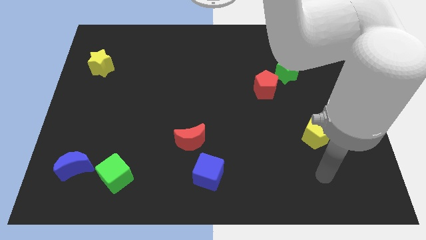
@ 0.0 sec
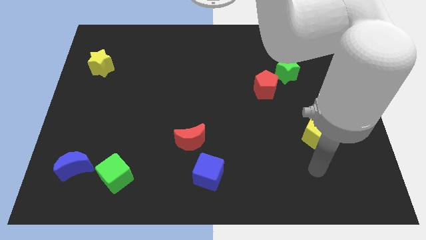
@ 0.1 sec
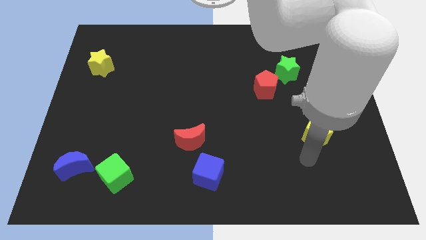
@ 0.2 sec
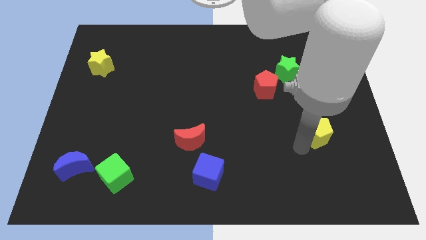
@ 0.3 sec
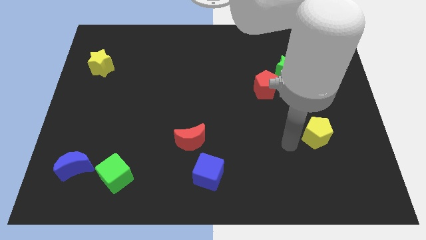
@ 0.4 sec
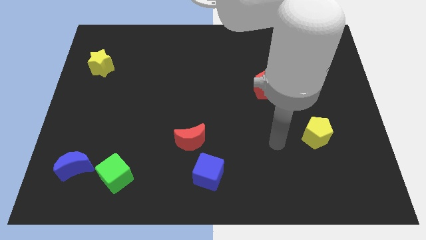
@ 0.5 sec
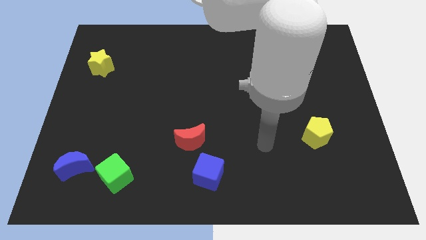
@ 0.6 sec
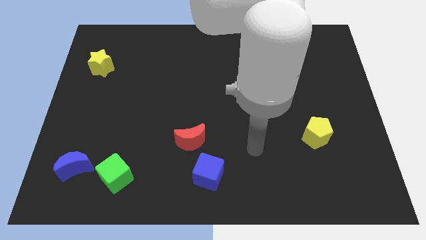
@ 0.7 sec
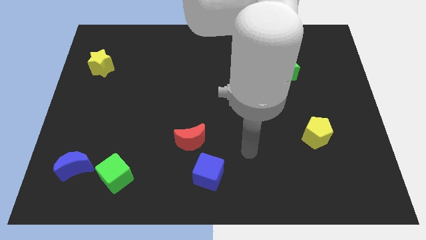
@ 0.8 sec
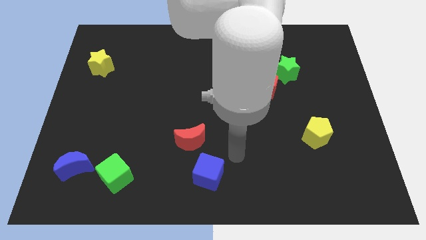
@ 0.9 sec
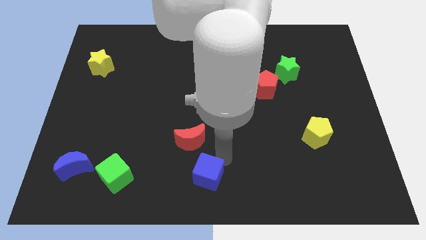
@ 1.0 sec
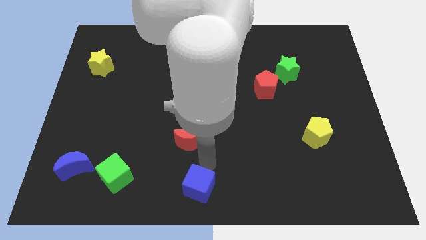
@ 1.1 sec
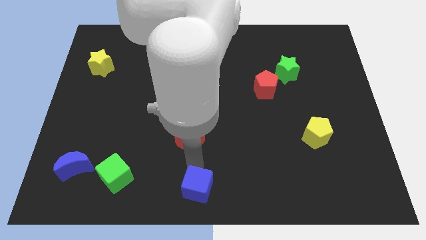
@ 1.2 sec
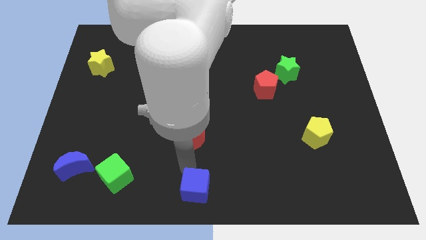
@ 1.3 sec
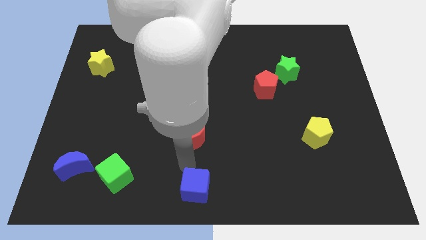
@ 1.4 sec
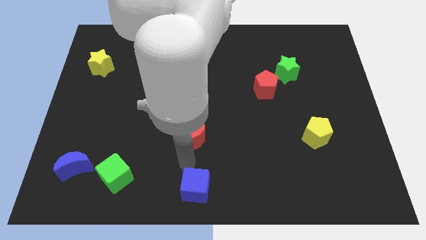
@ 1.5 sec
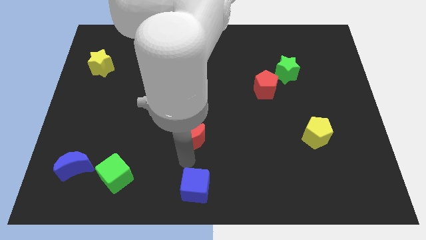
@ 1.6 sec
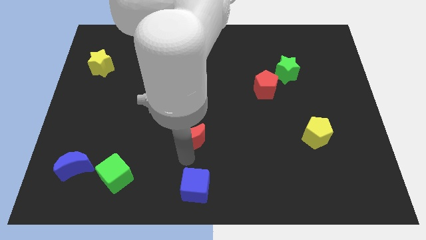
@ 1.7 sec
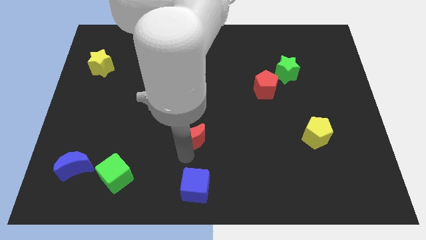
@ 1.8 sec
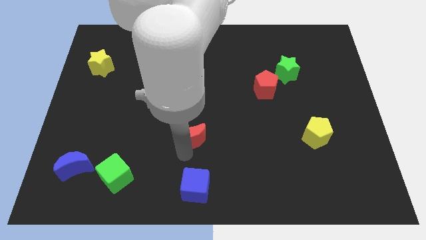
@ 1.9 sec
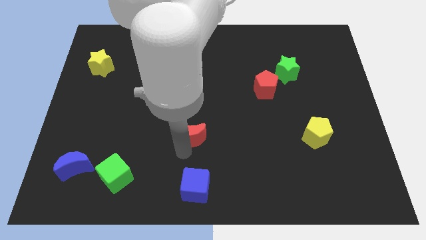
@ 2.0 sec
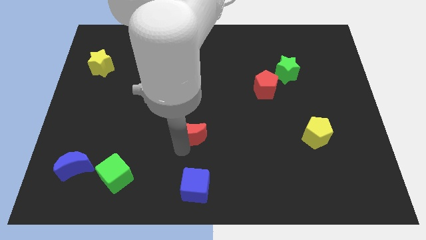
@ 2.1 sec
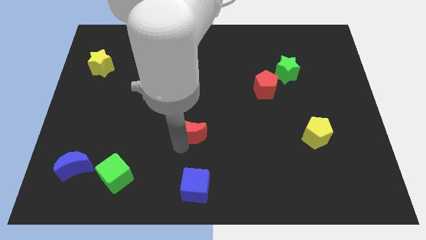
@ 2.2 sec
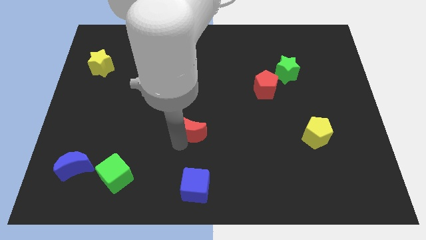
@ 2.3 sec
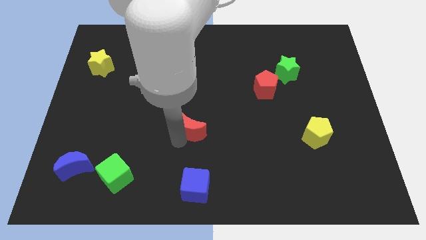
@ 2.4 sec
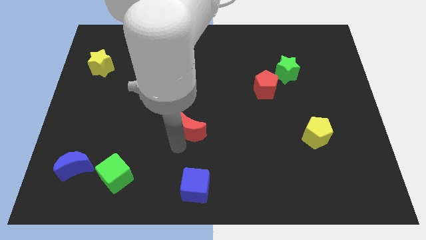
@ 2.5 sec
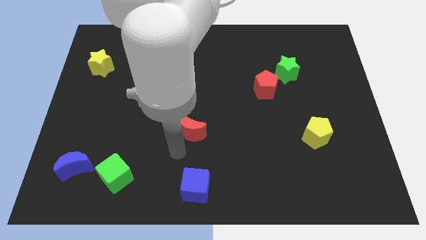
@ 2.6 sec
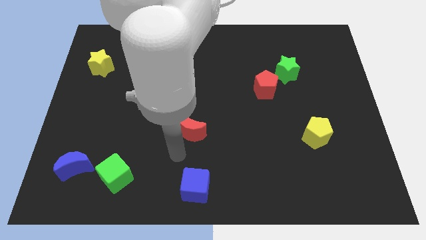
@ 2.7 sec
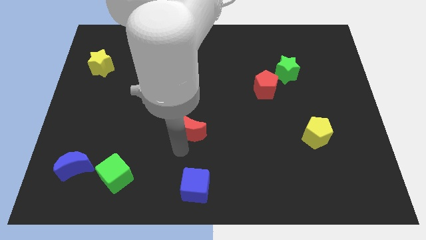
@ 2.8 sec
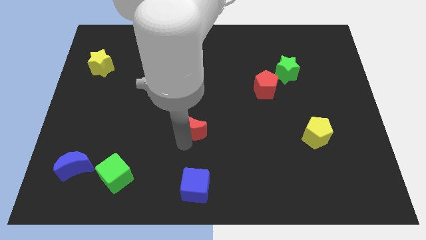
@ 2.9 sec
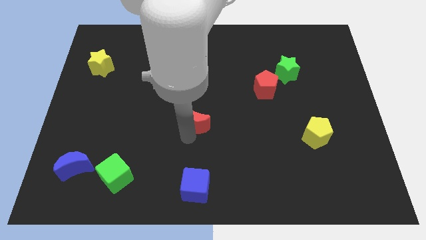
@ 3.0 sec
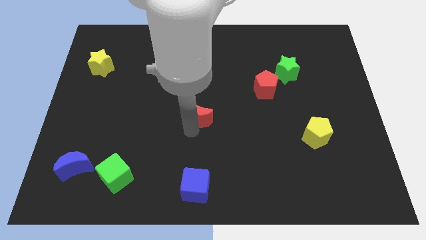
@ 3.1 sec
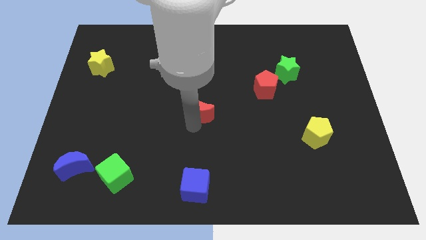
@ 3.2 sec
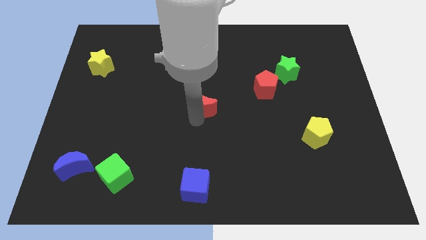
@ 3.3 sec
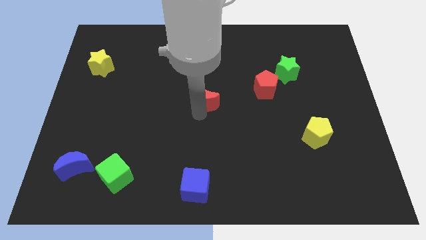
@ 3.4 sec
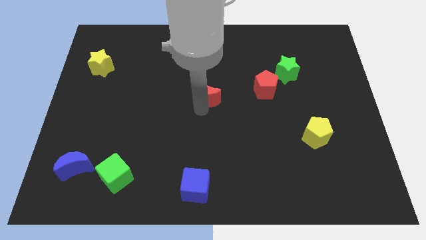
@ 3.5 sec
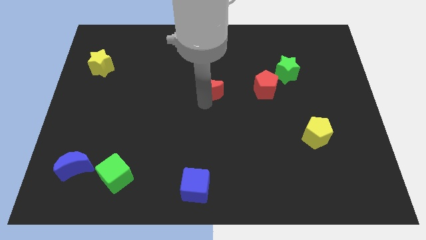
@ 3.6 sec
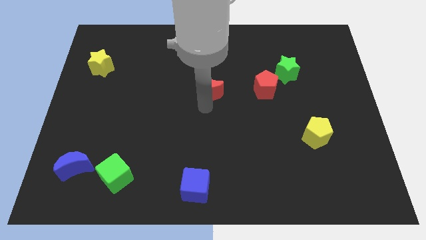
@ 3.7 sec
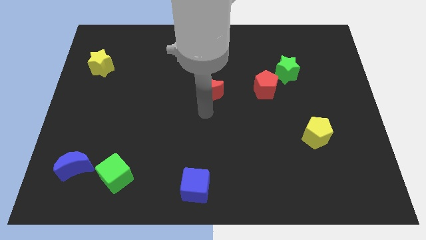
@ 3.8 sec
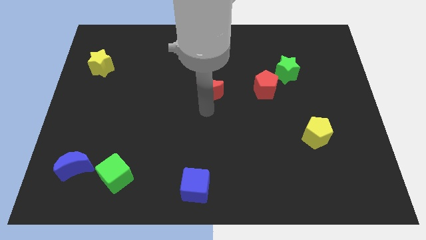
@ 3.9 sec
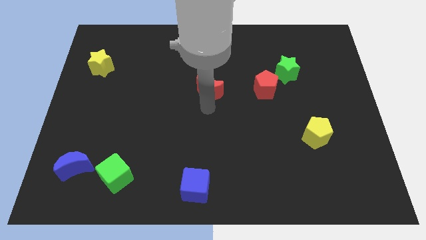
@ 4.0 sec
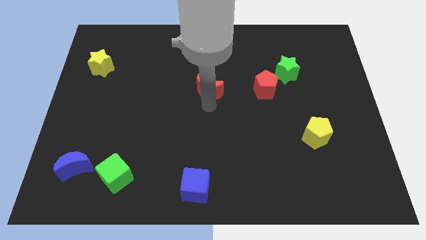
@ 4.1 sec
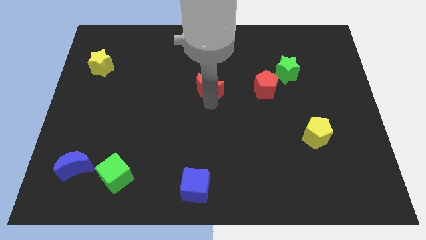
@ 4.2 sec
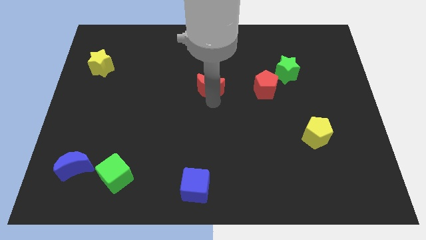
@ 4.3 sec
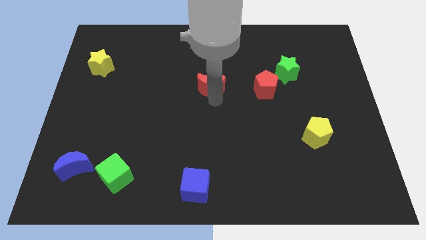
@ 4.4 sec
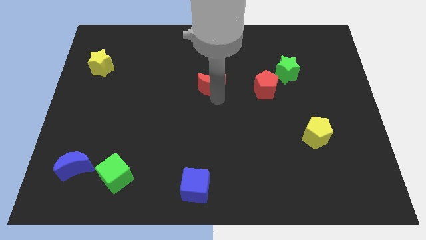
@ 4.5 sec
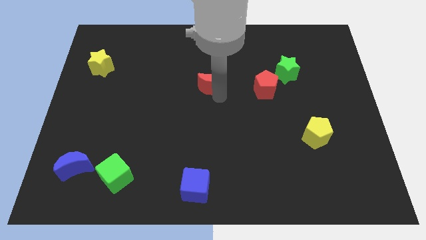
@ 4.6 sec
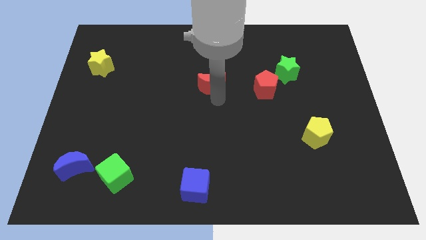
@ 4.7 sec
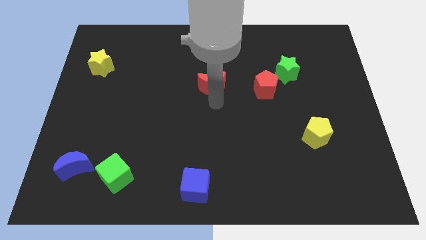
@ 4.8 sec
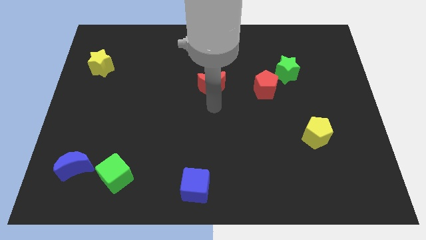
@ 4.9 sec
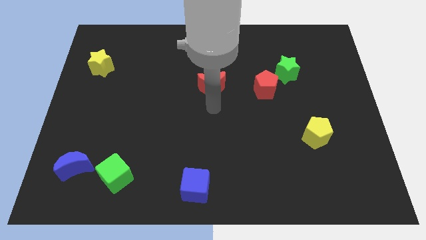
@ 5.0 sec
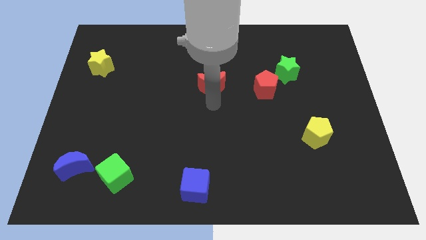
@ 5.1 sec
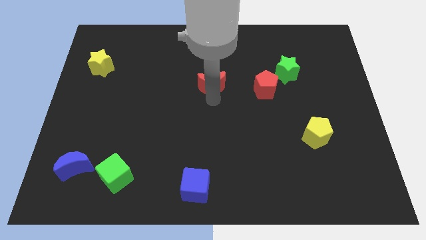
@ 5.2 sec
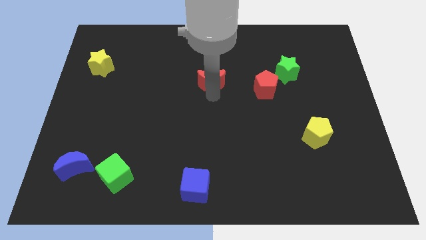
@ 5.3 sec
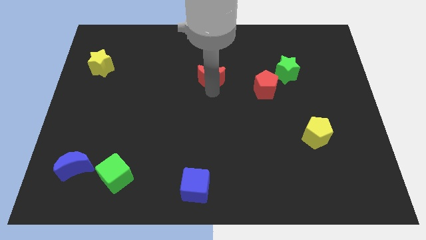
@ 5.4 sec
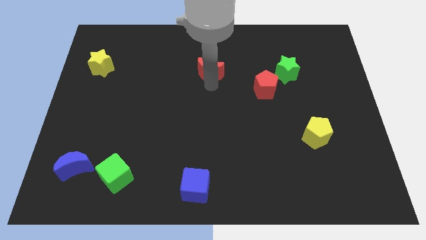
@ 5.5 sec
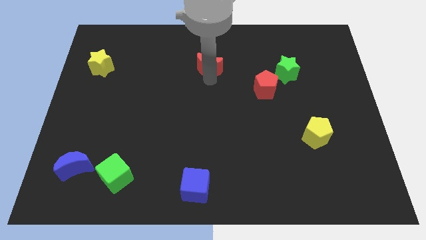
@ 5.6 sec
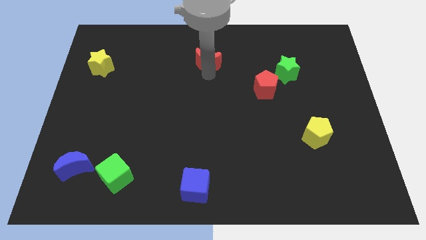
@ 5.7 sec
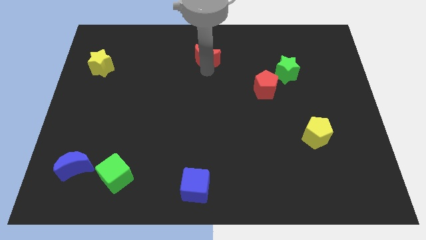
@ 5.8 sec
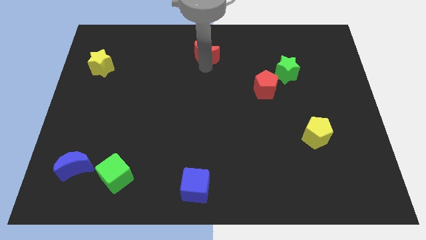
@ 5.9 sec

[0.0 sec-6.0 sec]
push the red moon to the top side
